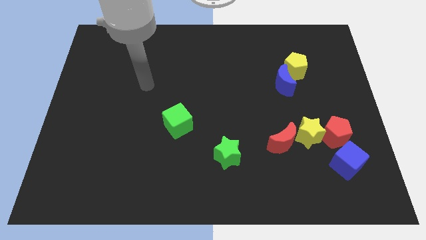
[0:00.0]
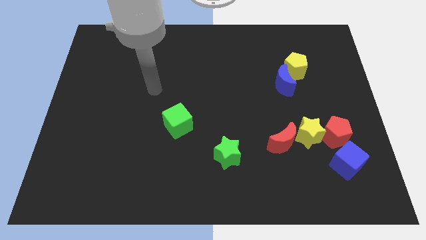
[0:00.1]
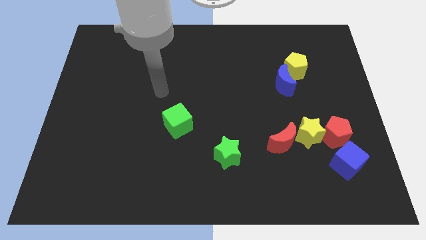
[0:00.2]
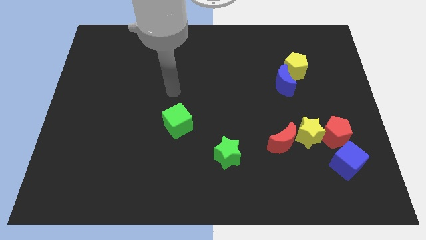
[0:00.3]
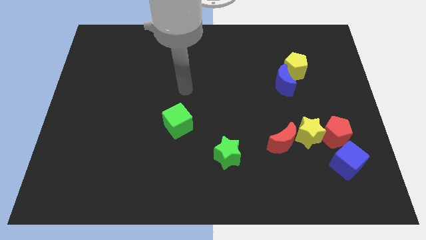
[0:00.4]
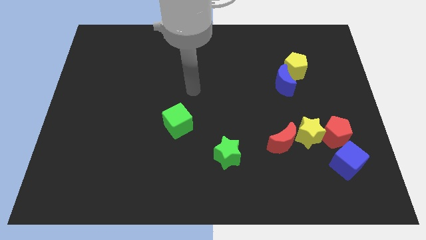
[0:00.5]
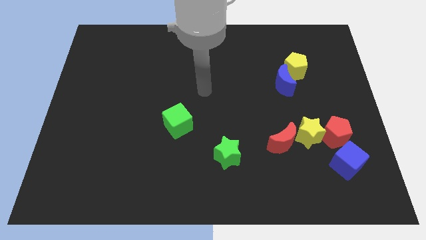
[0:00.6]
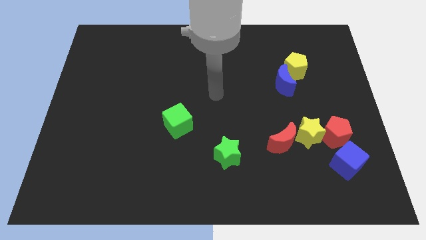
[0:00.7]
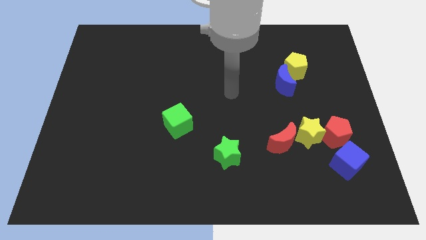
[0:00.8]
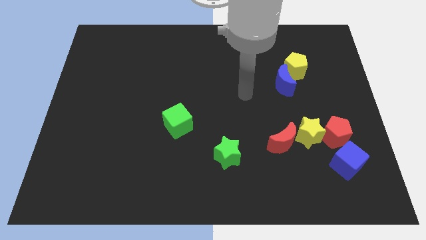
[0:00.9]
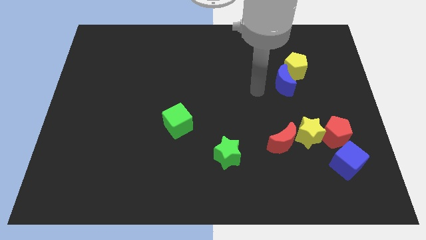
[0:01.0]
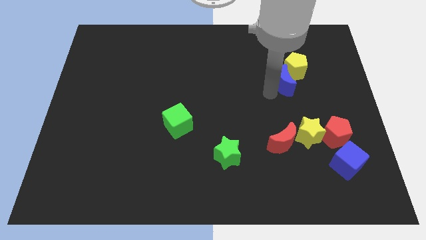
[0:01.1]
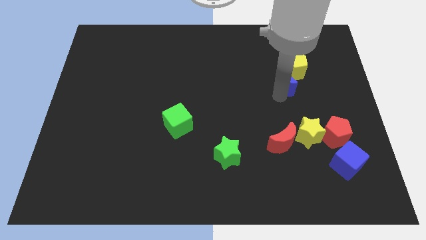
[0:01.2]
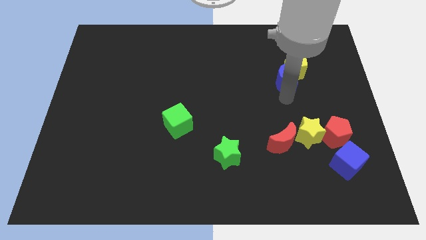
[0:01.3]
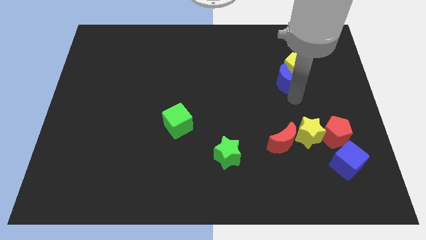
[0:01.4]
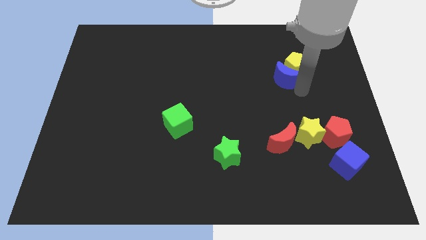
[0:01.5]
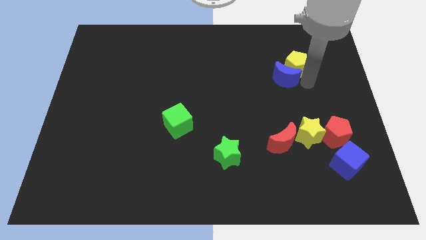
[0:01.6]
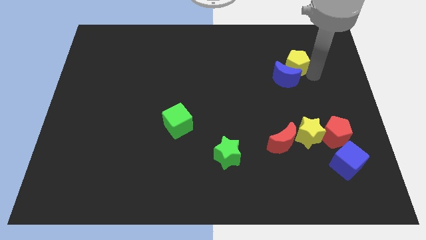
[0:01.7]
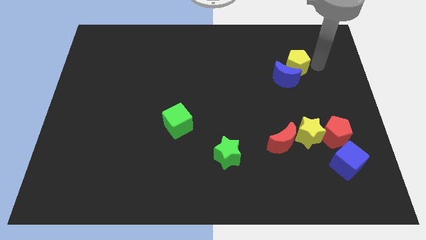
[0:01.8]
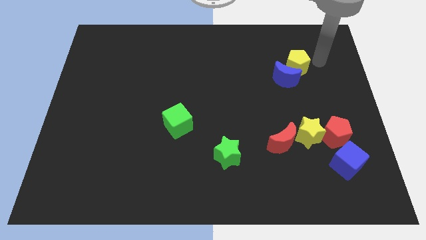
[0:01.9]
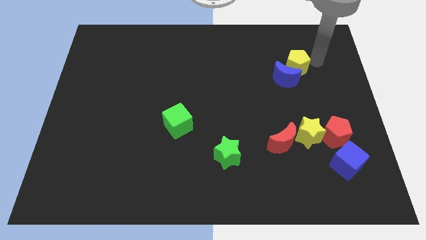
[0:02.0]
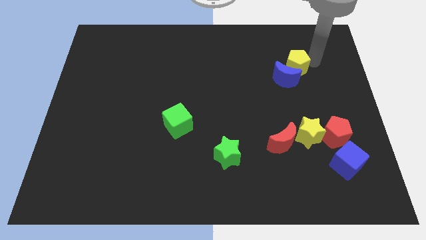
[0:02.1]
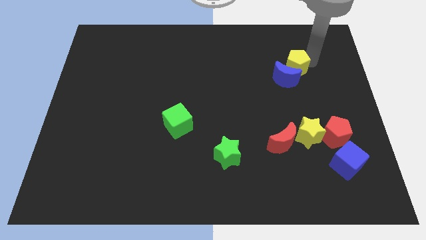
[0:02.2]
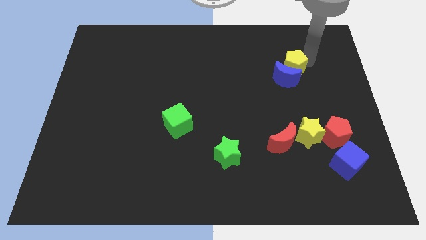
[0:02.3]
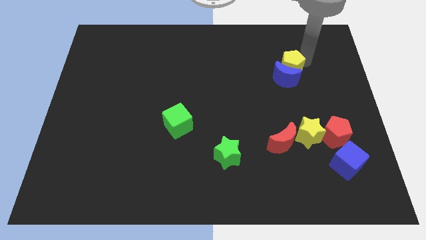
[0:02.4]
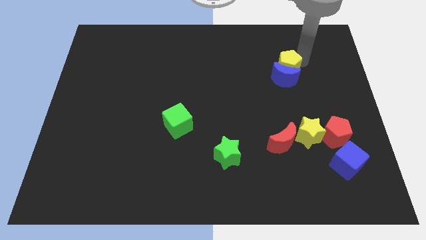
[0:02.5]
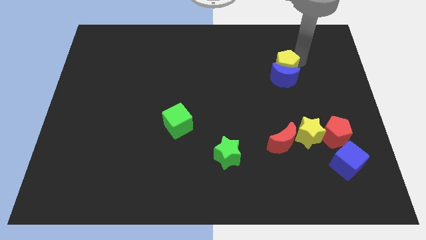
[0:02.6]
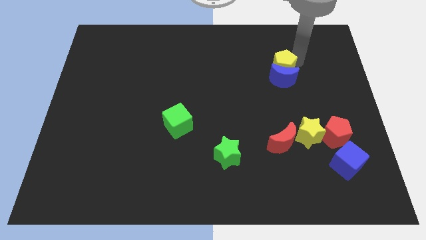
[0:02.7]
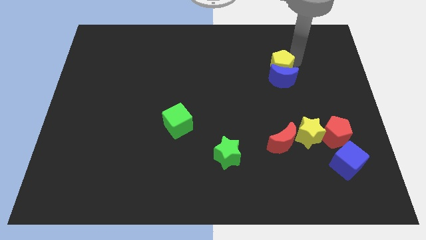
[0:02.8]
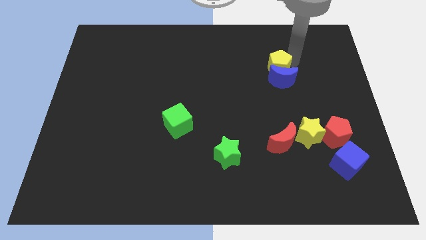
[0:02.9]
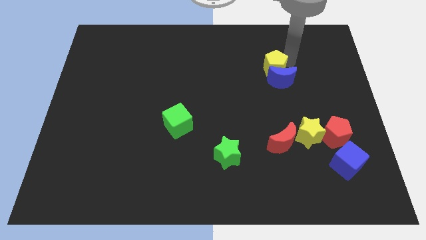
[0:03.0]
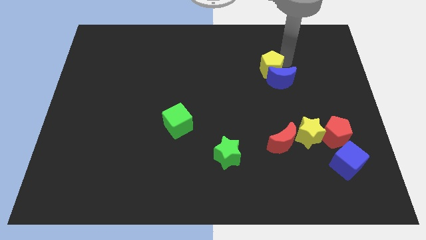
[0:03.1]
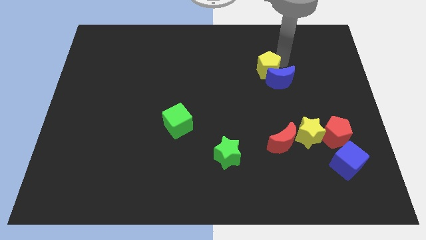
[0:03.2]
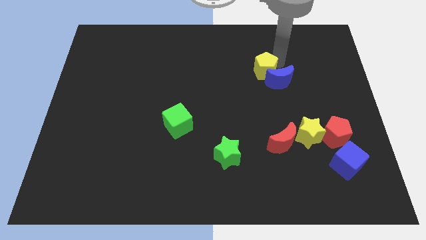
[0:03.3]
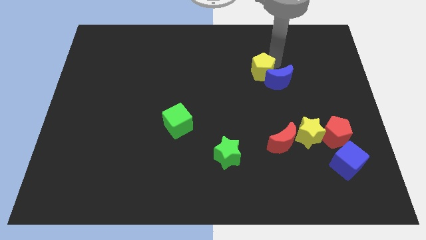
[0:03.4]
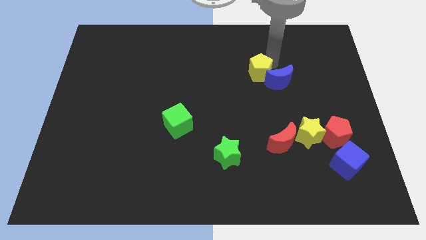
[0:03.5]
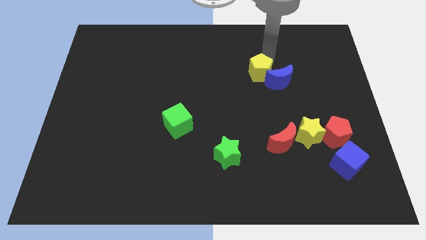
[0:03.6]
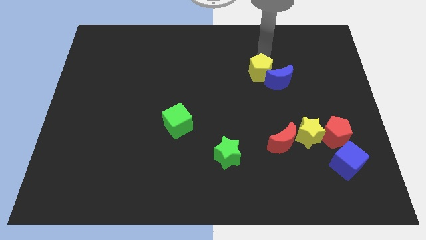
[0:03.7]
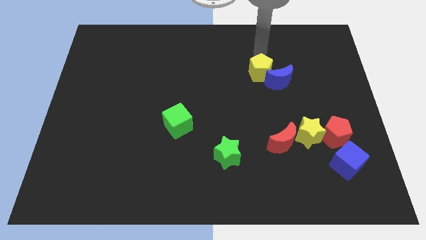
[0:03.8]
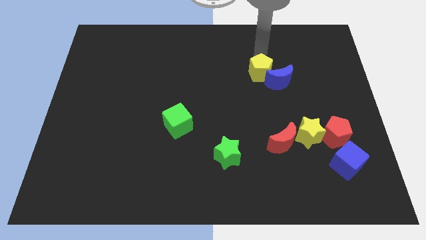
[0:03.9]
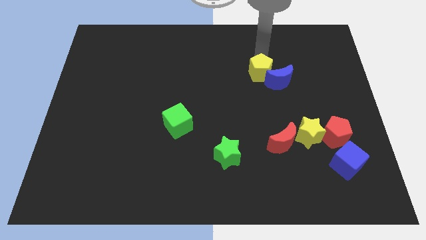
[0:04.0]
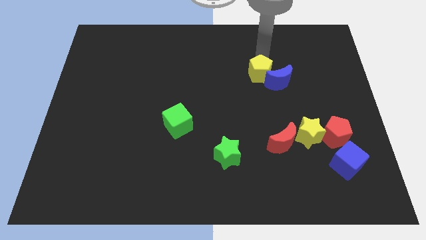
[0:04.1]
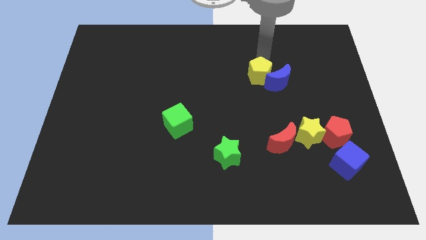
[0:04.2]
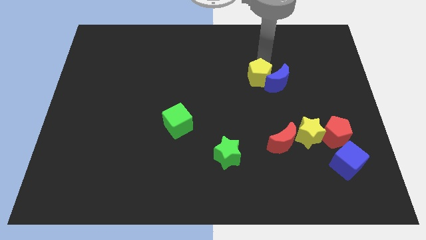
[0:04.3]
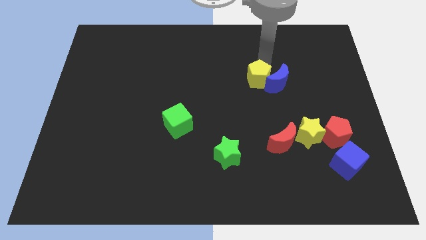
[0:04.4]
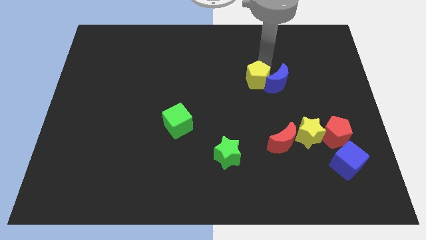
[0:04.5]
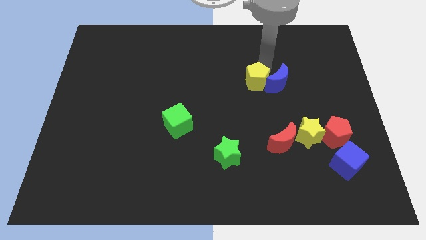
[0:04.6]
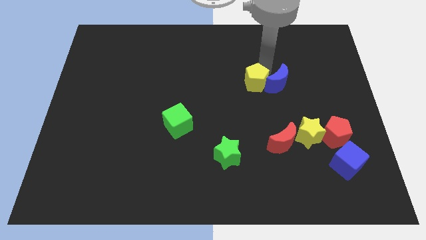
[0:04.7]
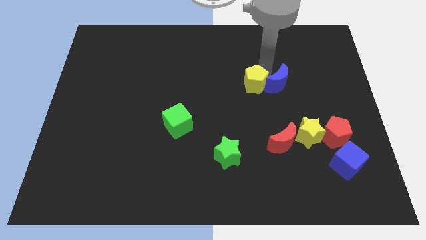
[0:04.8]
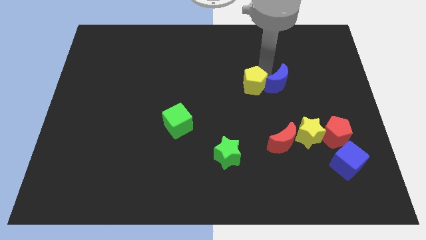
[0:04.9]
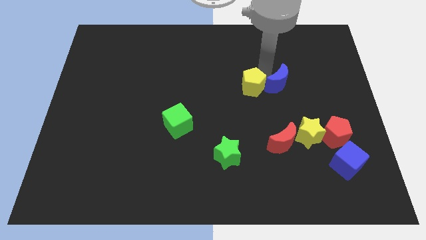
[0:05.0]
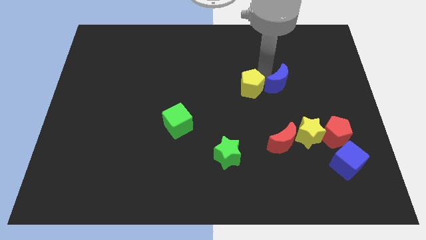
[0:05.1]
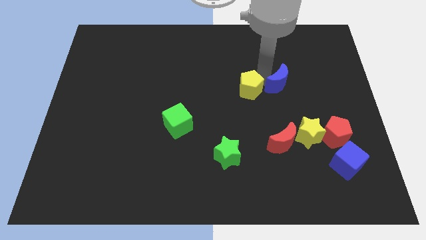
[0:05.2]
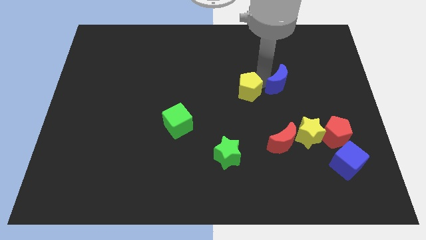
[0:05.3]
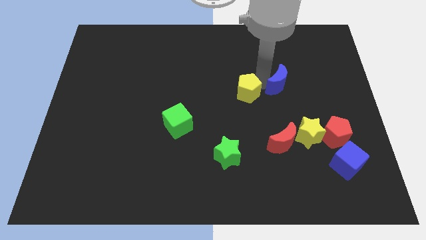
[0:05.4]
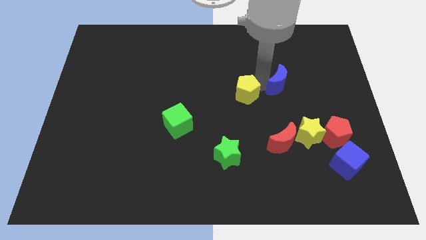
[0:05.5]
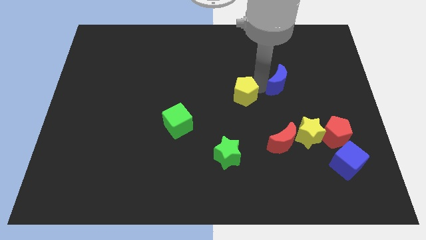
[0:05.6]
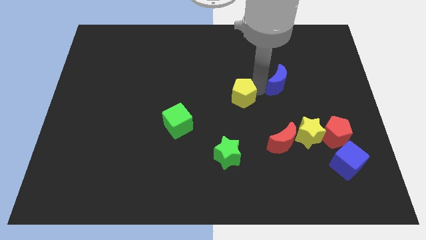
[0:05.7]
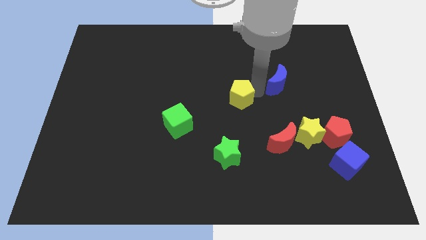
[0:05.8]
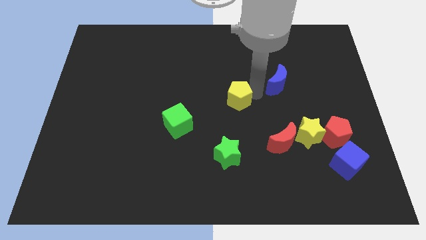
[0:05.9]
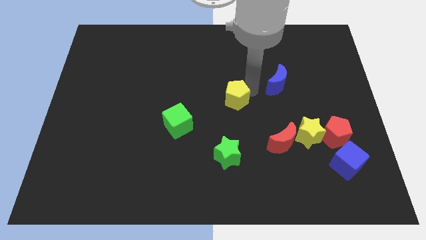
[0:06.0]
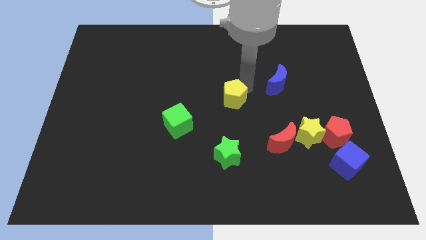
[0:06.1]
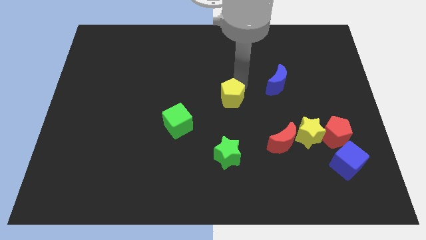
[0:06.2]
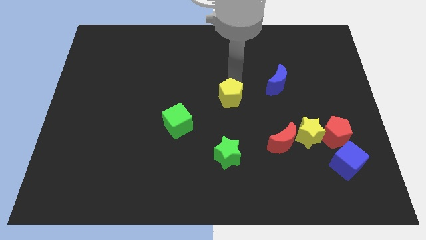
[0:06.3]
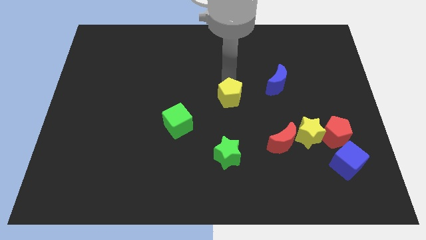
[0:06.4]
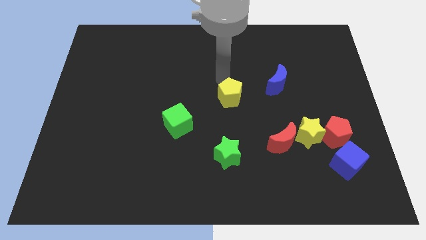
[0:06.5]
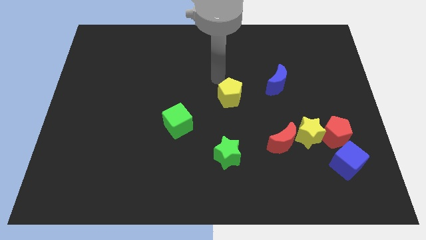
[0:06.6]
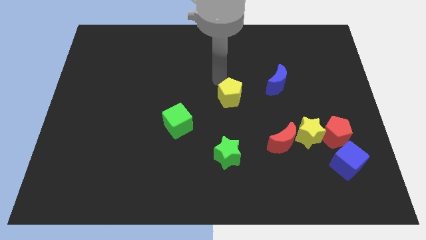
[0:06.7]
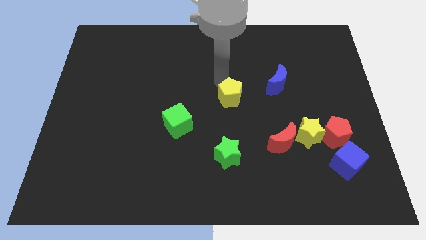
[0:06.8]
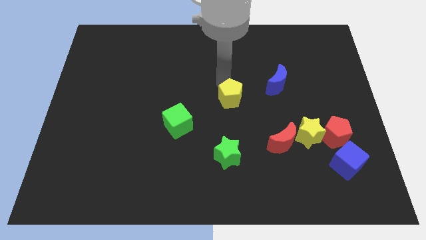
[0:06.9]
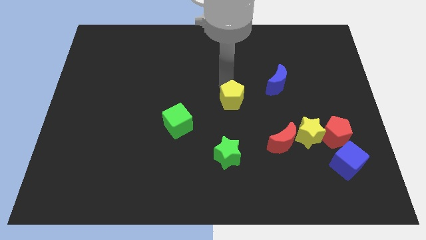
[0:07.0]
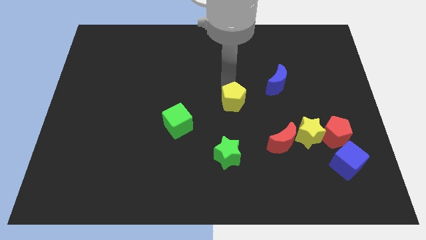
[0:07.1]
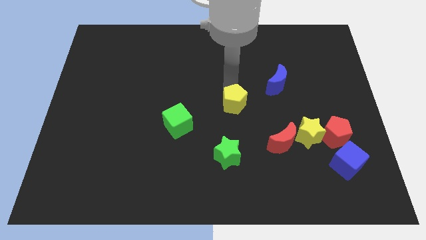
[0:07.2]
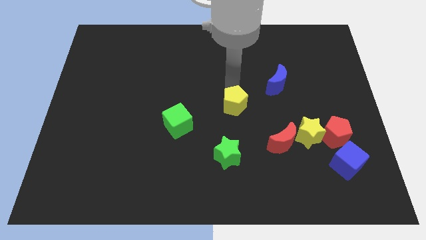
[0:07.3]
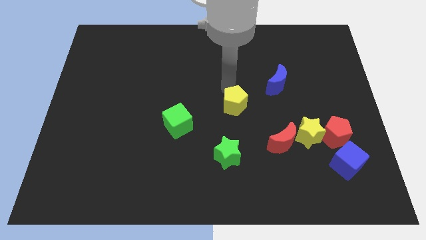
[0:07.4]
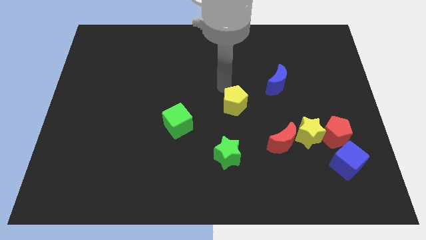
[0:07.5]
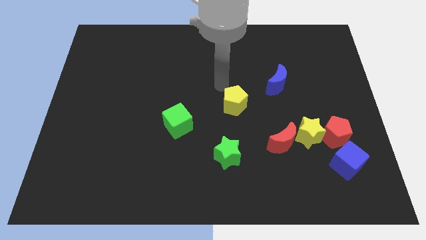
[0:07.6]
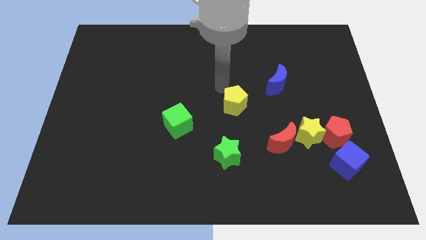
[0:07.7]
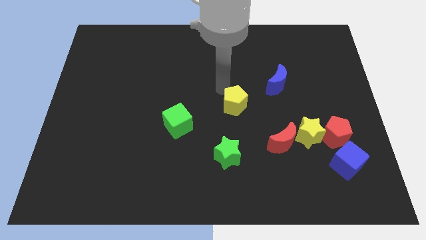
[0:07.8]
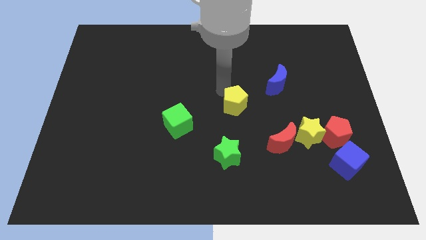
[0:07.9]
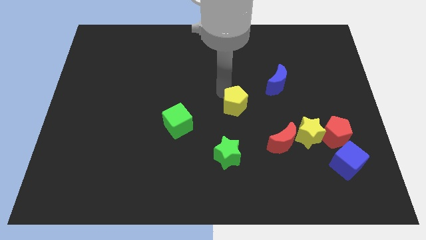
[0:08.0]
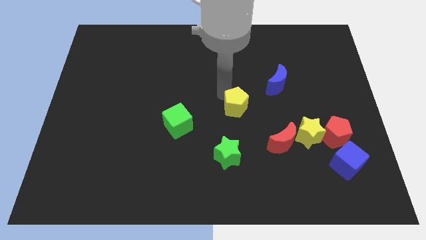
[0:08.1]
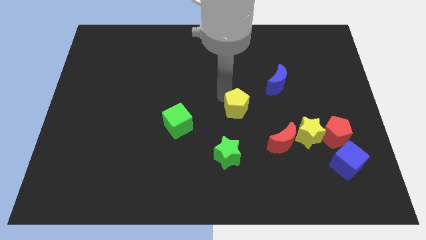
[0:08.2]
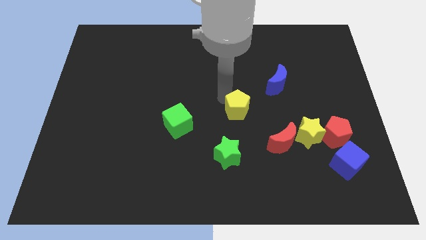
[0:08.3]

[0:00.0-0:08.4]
move the yellow pentagon downwards and left

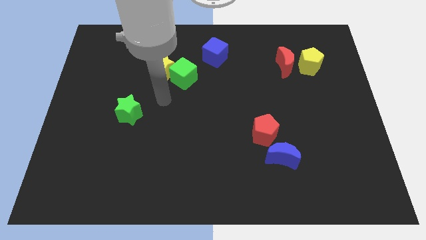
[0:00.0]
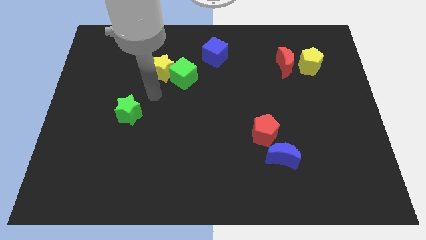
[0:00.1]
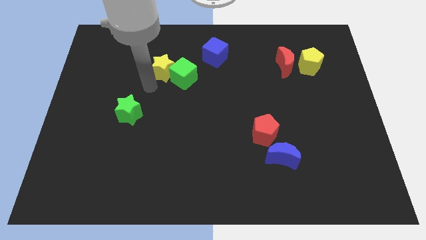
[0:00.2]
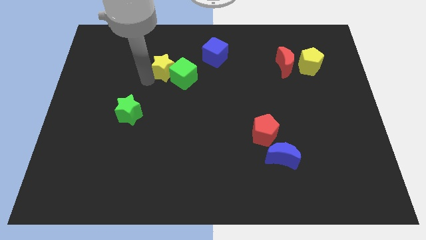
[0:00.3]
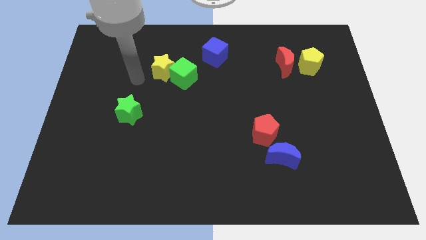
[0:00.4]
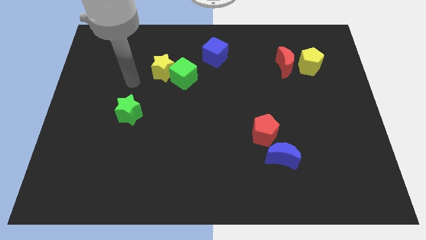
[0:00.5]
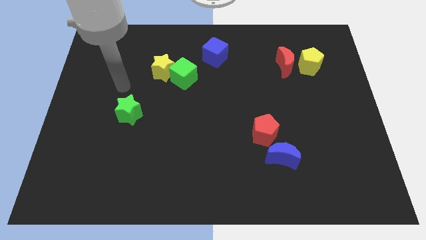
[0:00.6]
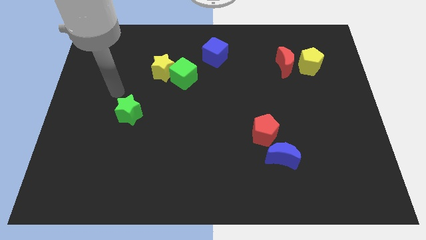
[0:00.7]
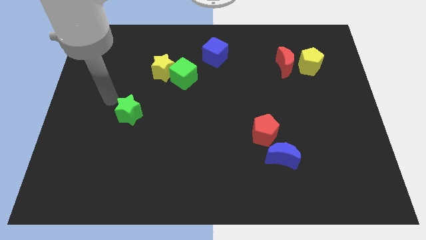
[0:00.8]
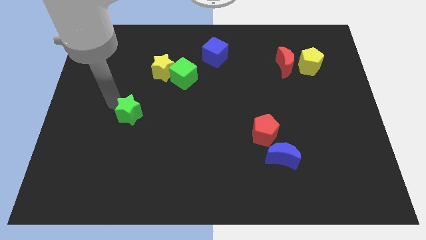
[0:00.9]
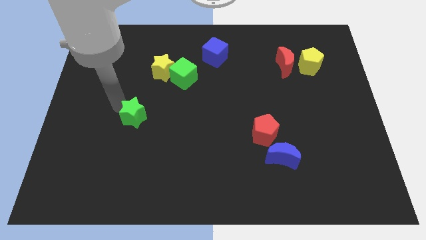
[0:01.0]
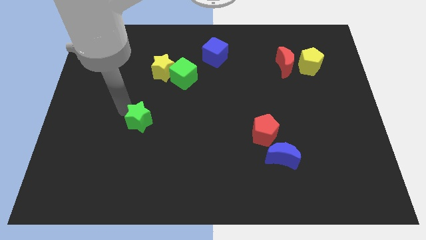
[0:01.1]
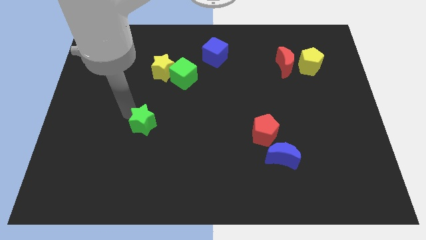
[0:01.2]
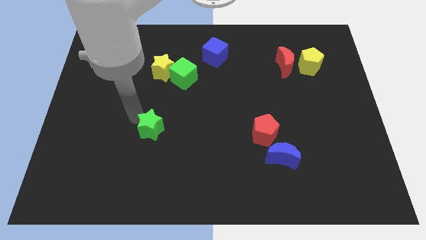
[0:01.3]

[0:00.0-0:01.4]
slightly move the green star diagonally down and to the right
